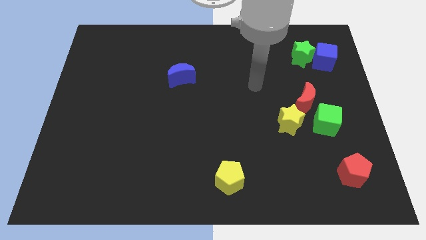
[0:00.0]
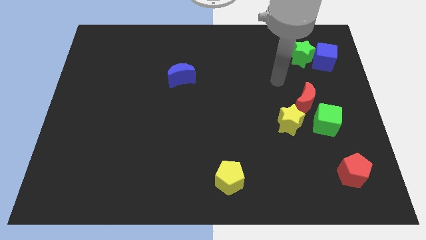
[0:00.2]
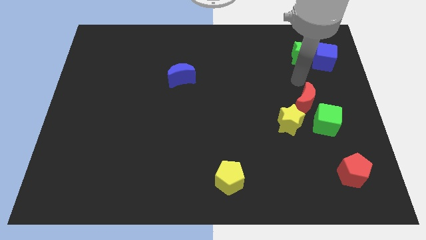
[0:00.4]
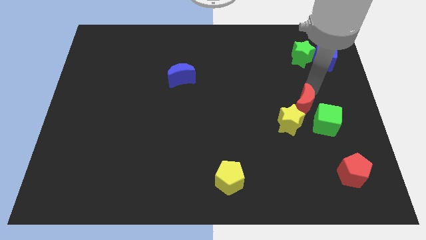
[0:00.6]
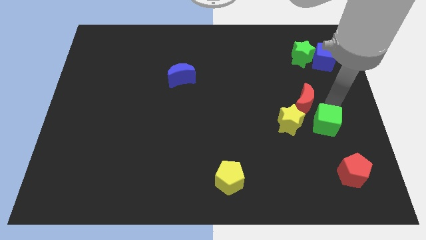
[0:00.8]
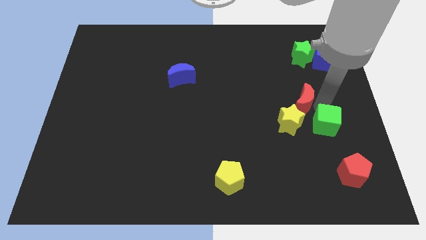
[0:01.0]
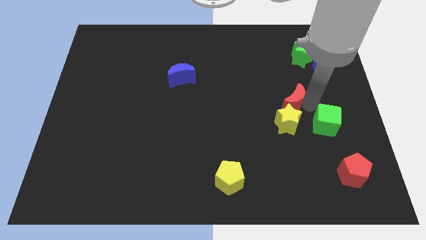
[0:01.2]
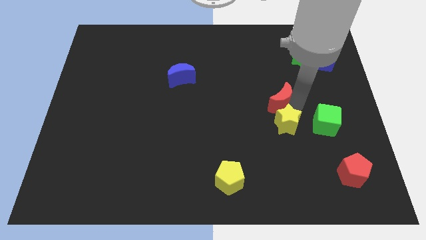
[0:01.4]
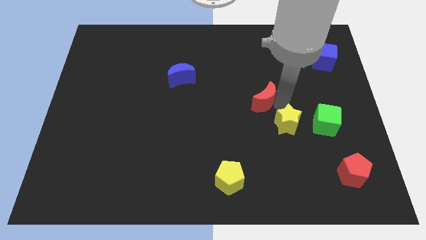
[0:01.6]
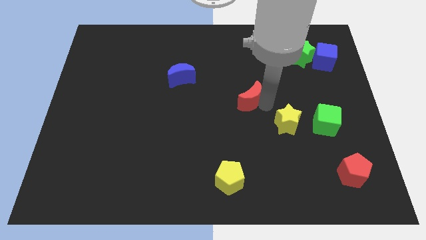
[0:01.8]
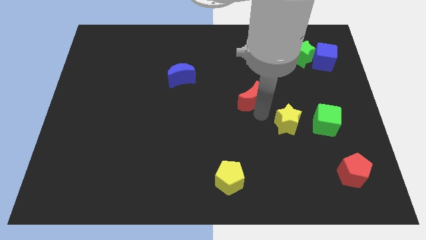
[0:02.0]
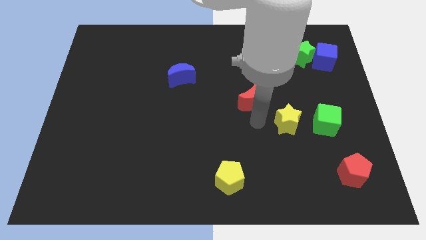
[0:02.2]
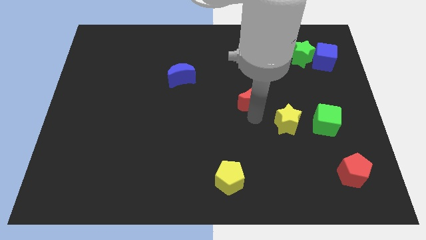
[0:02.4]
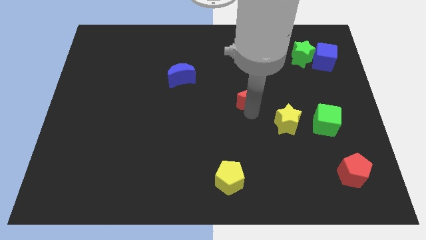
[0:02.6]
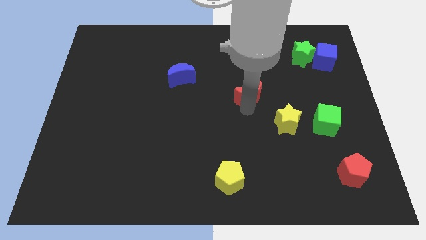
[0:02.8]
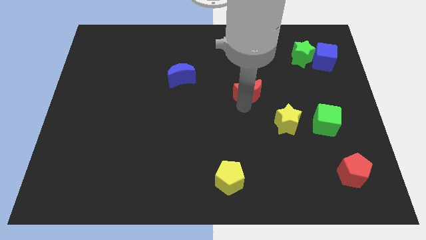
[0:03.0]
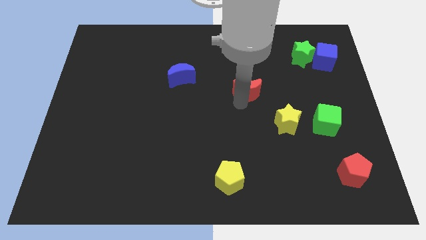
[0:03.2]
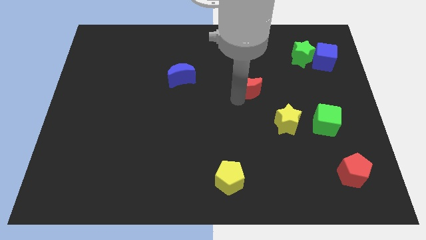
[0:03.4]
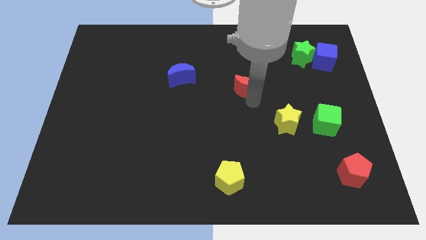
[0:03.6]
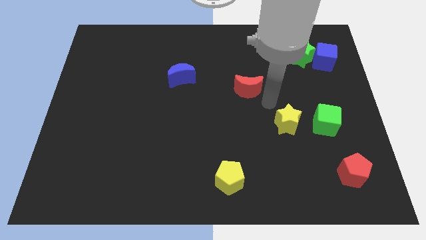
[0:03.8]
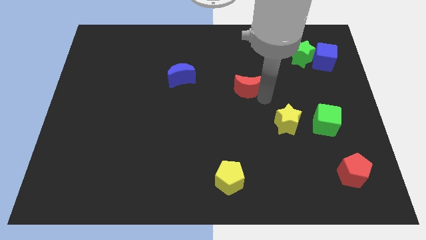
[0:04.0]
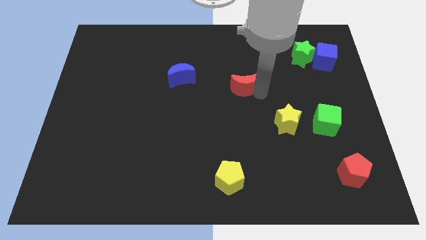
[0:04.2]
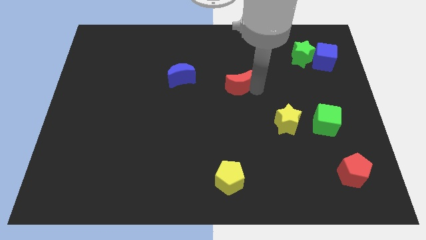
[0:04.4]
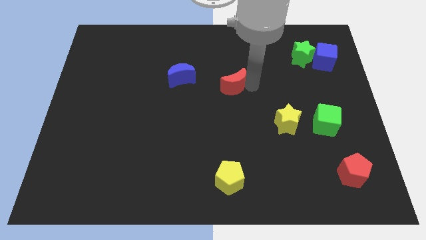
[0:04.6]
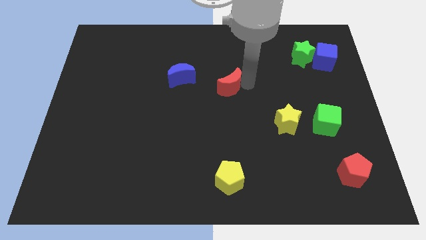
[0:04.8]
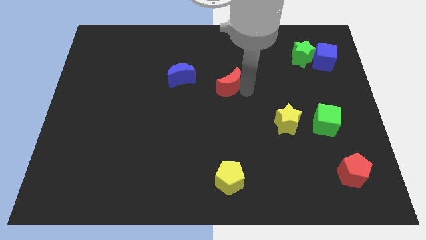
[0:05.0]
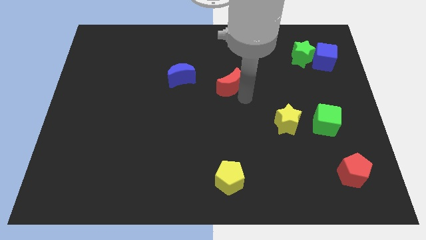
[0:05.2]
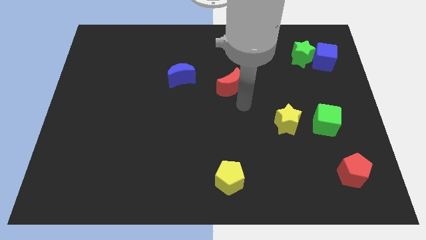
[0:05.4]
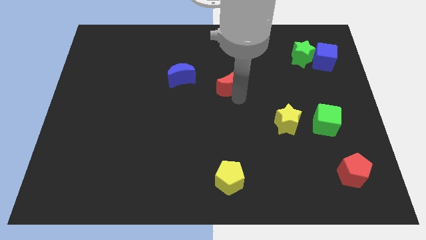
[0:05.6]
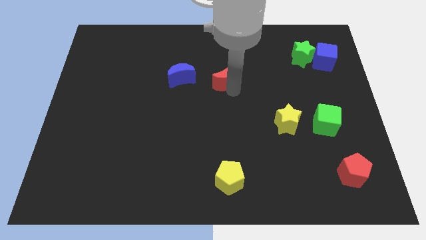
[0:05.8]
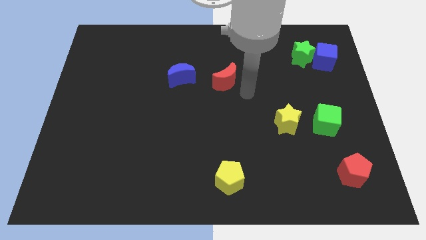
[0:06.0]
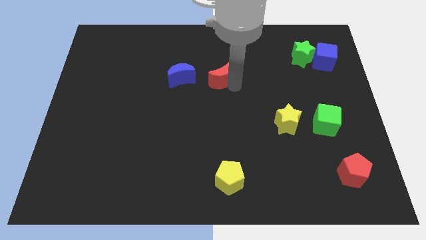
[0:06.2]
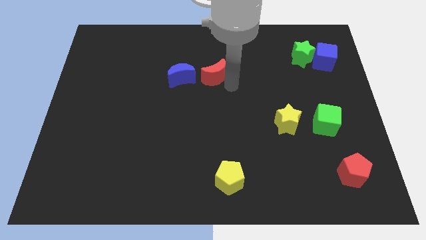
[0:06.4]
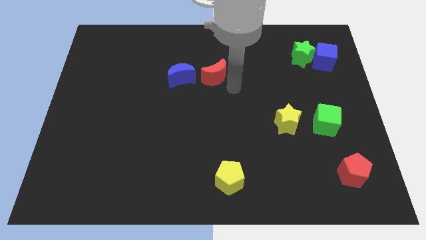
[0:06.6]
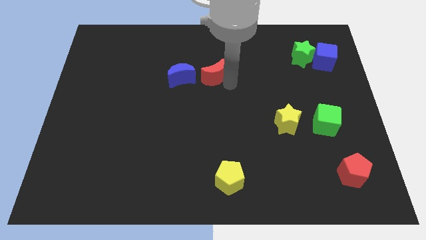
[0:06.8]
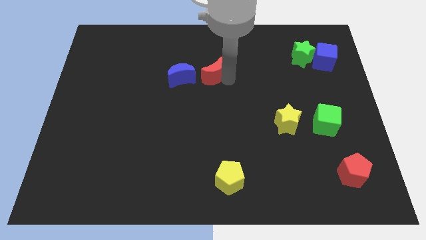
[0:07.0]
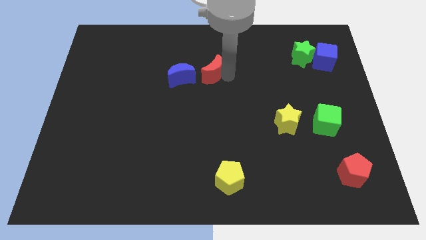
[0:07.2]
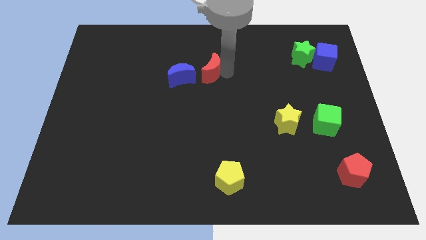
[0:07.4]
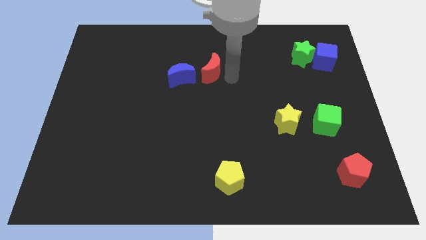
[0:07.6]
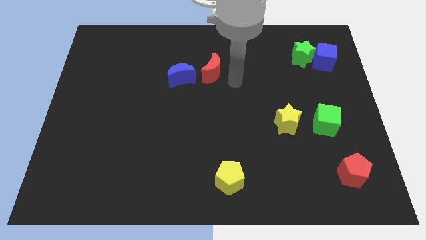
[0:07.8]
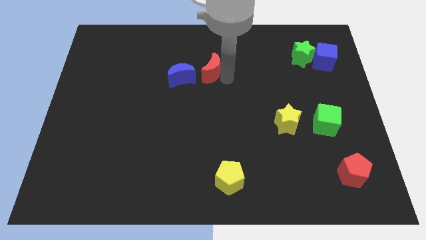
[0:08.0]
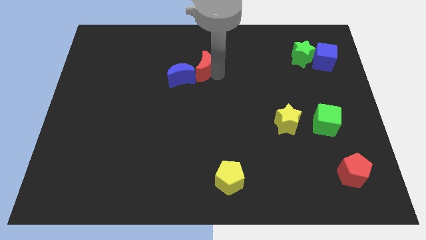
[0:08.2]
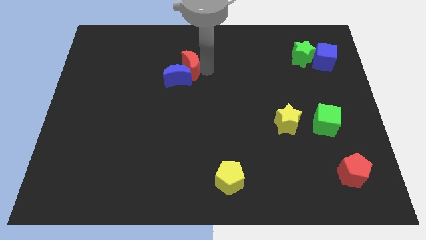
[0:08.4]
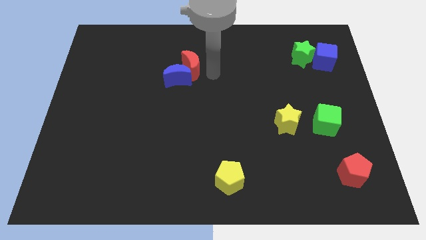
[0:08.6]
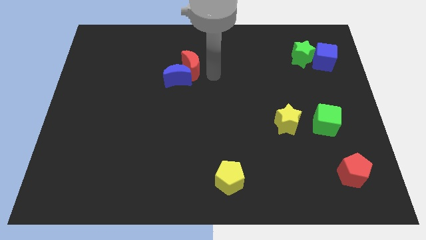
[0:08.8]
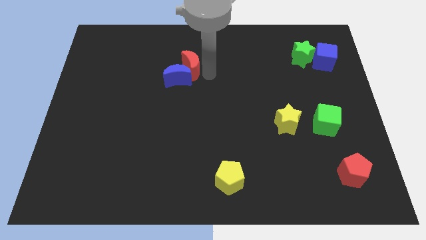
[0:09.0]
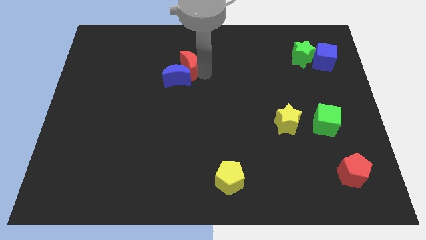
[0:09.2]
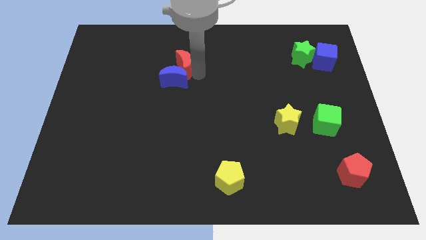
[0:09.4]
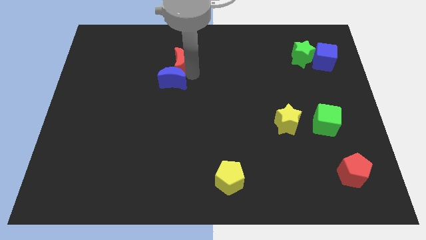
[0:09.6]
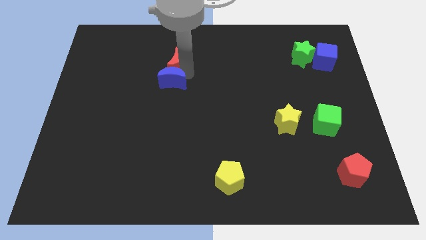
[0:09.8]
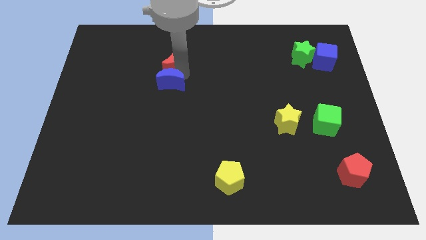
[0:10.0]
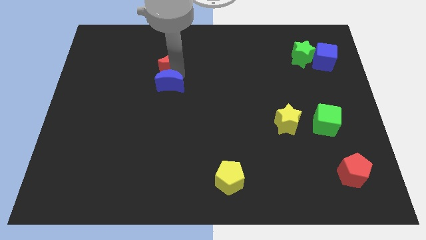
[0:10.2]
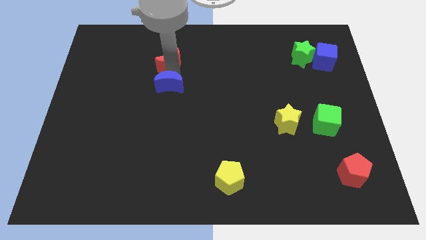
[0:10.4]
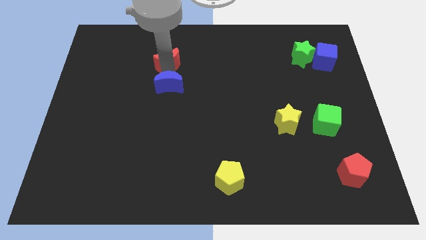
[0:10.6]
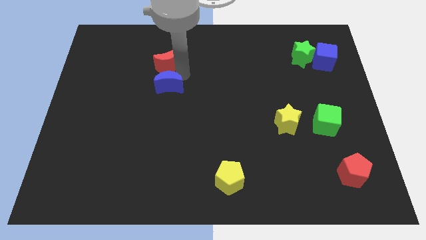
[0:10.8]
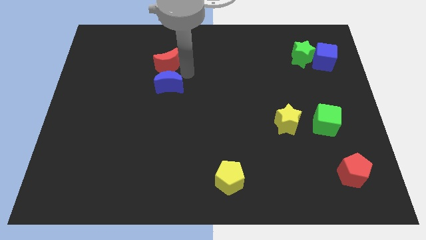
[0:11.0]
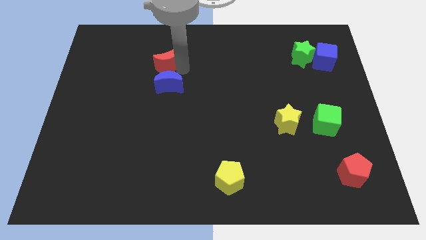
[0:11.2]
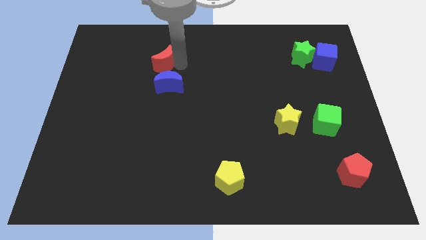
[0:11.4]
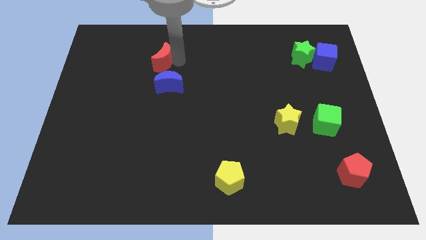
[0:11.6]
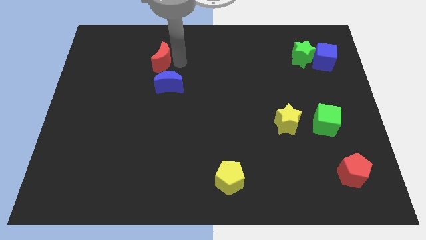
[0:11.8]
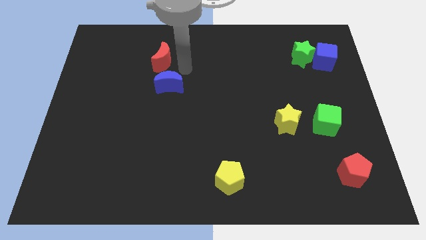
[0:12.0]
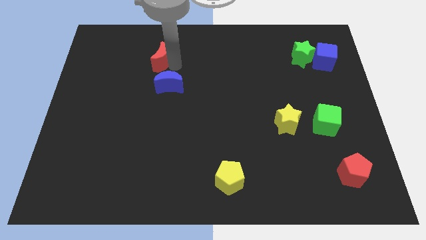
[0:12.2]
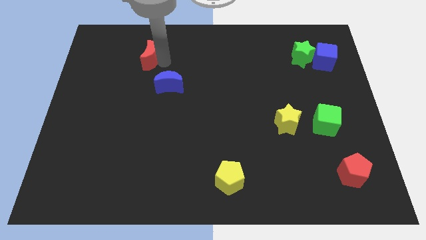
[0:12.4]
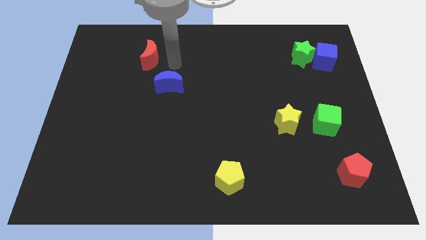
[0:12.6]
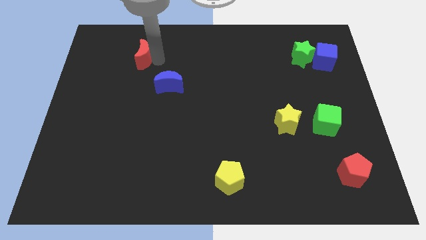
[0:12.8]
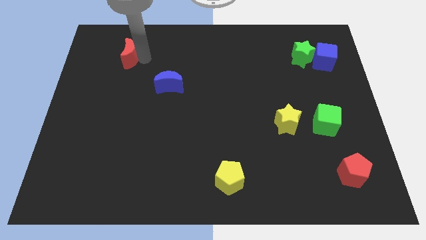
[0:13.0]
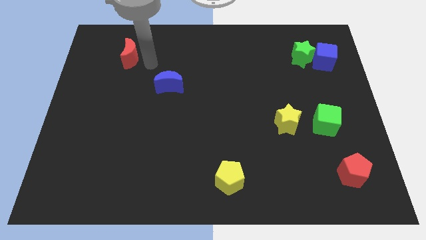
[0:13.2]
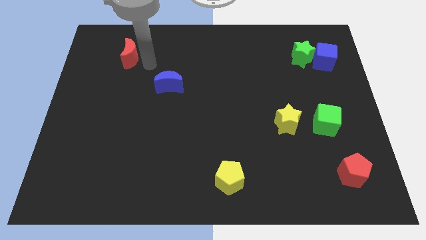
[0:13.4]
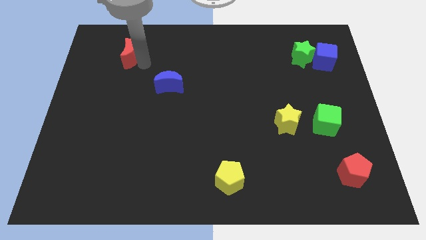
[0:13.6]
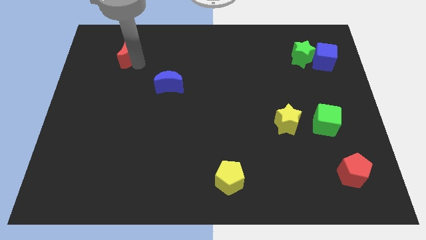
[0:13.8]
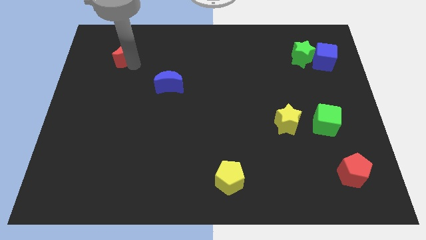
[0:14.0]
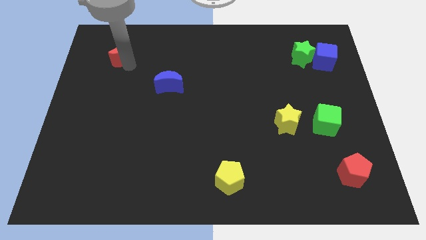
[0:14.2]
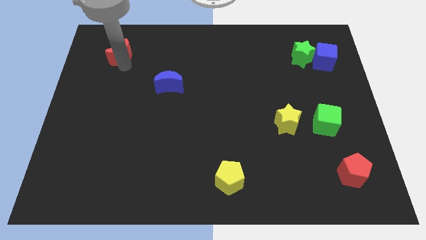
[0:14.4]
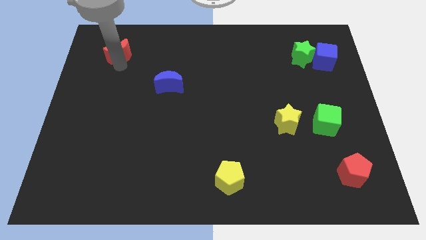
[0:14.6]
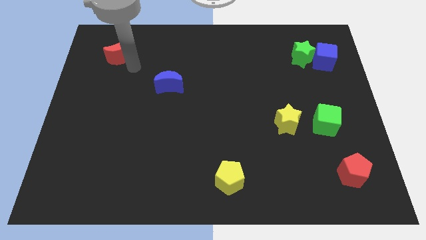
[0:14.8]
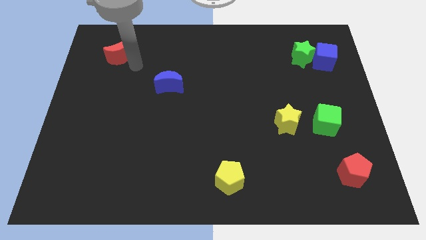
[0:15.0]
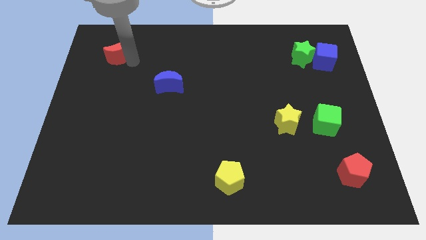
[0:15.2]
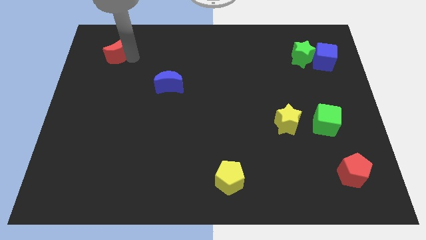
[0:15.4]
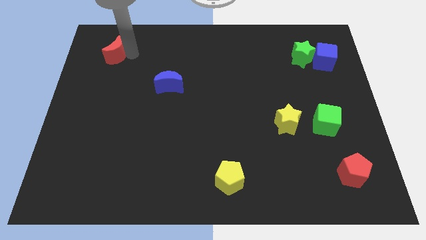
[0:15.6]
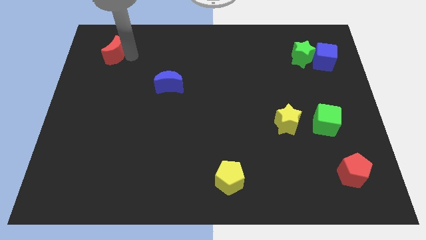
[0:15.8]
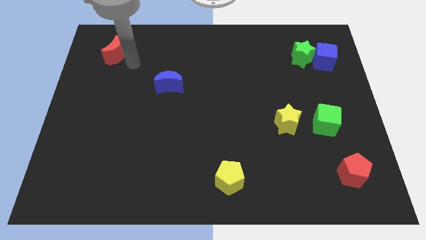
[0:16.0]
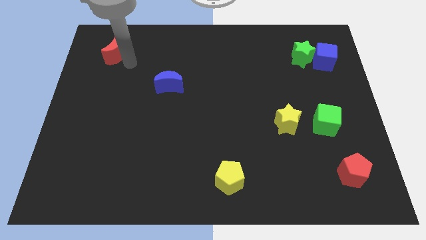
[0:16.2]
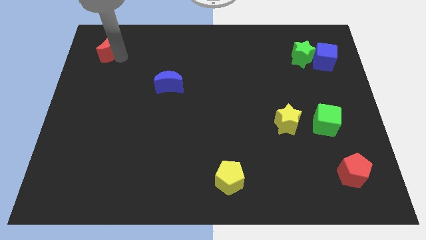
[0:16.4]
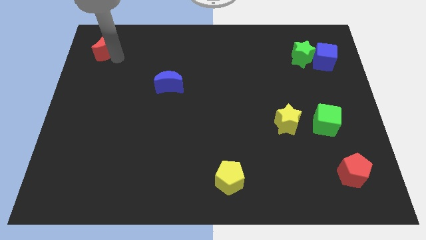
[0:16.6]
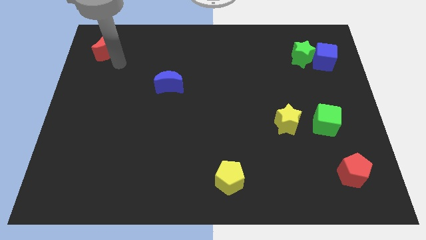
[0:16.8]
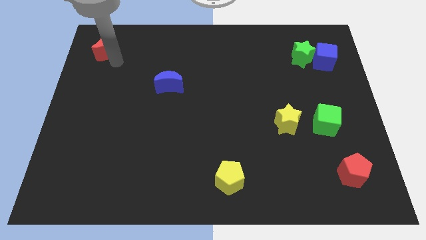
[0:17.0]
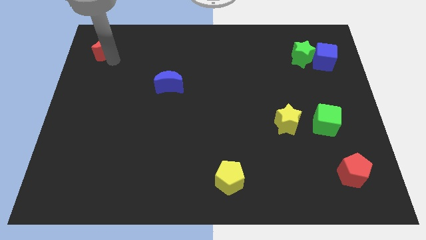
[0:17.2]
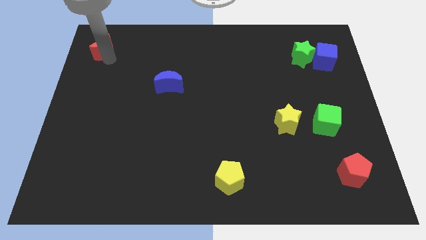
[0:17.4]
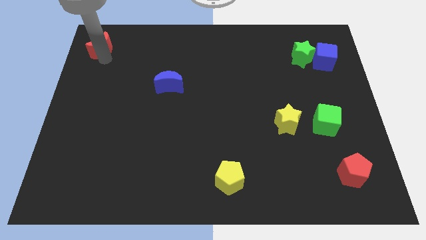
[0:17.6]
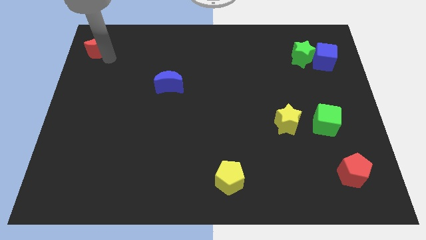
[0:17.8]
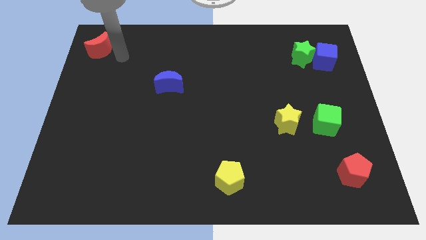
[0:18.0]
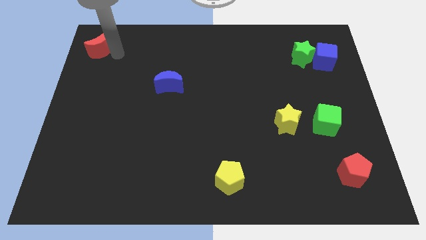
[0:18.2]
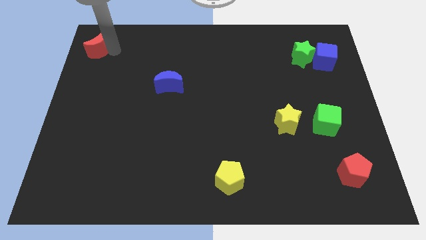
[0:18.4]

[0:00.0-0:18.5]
put the red moon to the upper left corner
